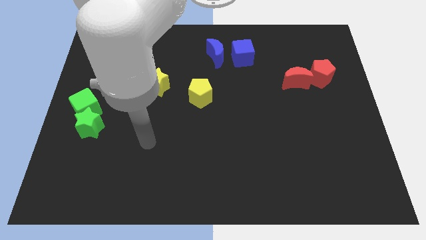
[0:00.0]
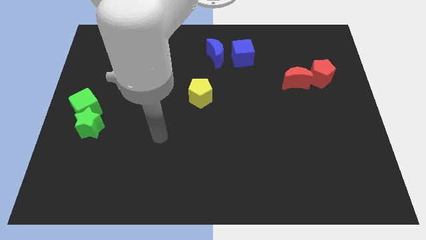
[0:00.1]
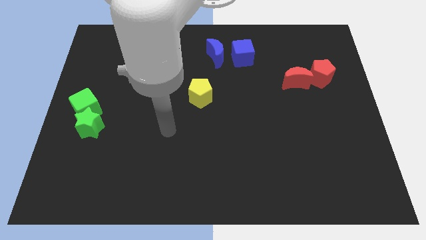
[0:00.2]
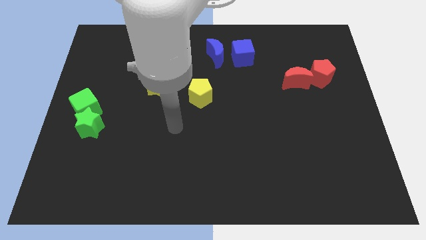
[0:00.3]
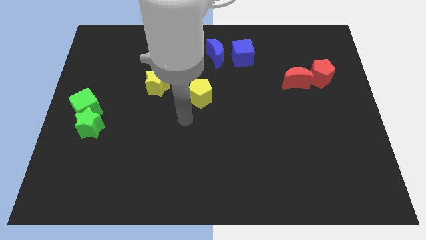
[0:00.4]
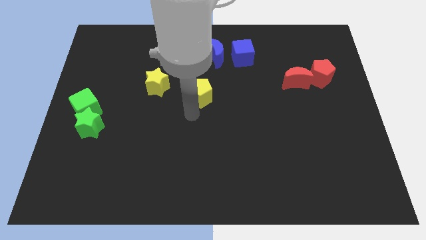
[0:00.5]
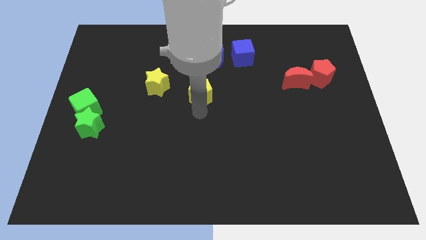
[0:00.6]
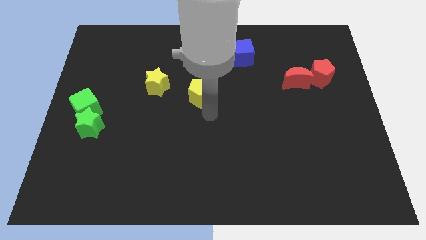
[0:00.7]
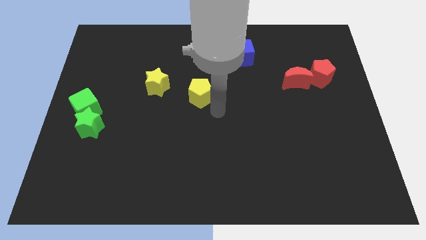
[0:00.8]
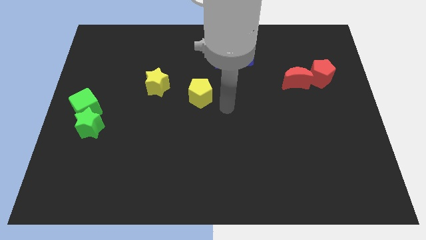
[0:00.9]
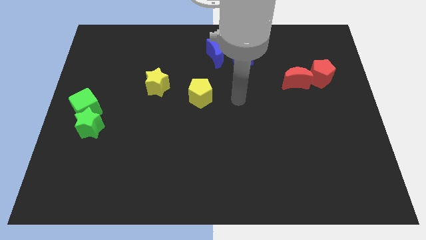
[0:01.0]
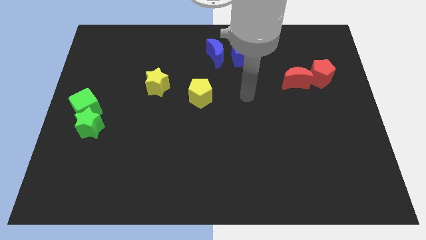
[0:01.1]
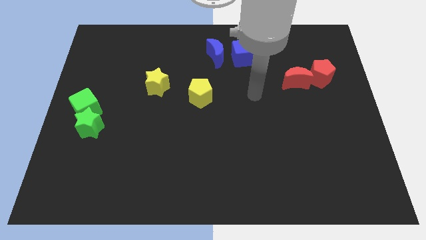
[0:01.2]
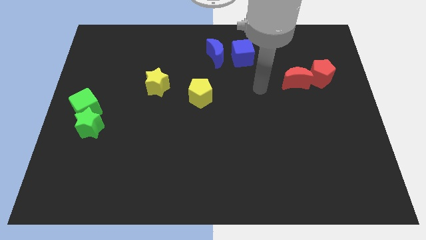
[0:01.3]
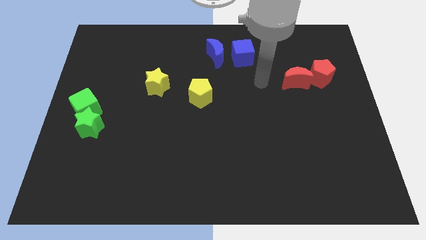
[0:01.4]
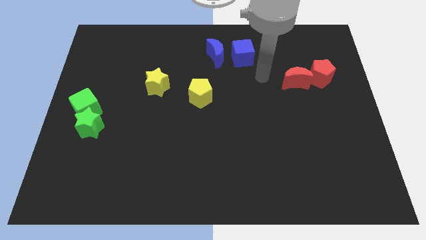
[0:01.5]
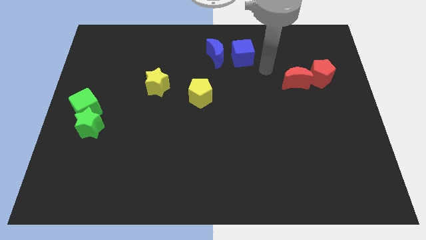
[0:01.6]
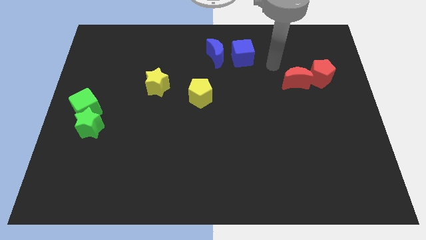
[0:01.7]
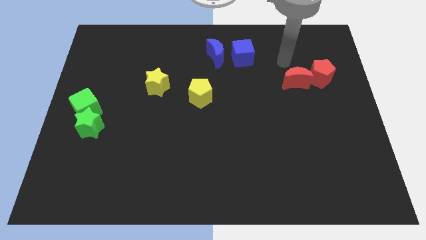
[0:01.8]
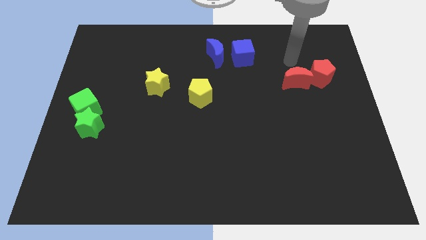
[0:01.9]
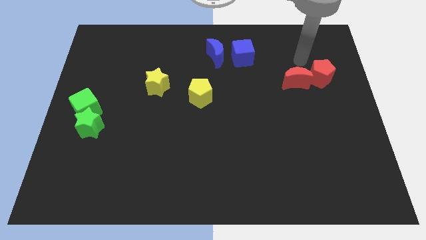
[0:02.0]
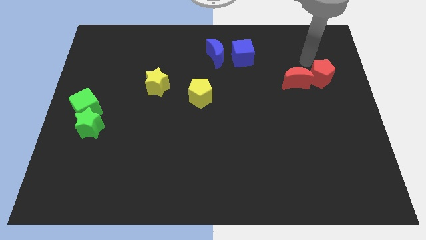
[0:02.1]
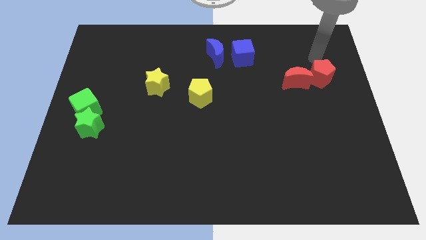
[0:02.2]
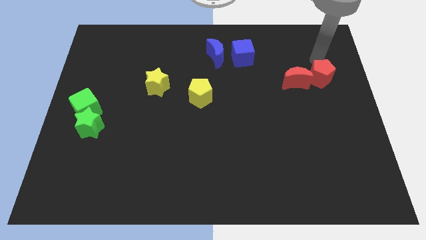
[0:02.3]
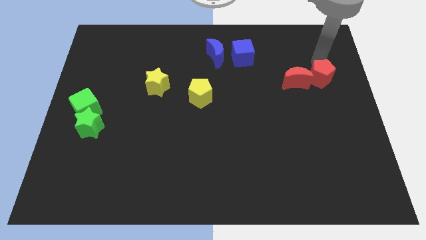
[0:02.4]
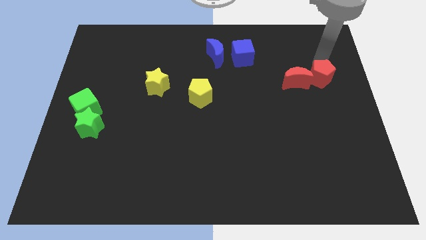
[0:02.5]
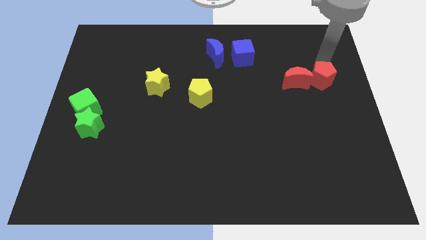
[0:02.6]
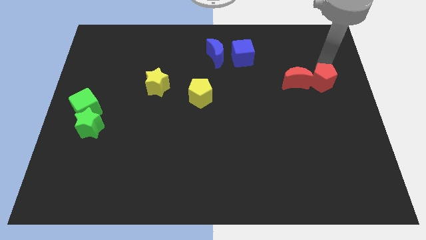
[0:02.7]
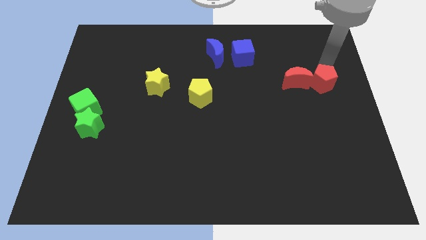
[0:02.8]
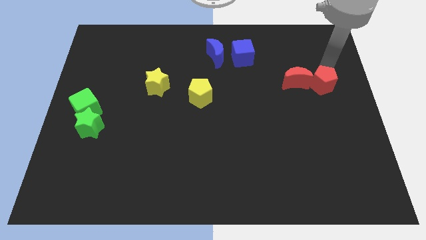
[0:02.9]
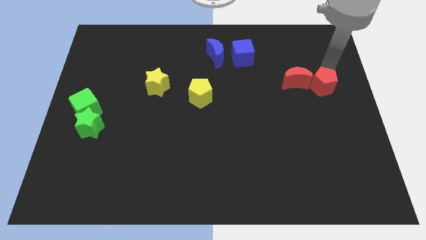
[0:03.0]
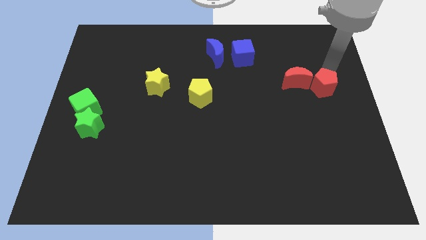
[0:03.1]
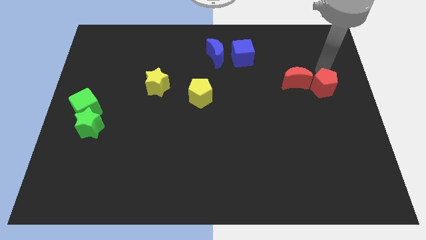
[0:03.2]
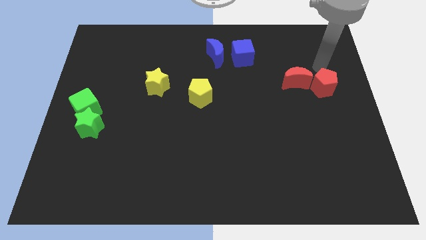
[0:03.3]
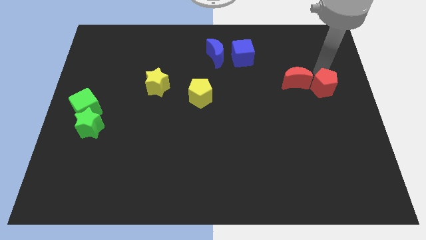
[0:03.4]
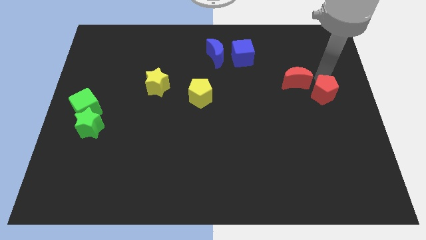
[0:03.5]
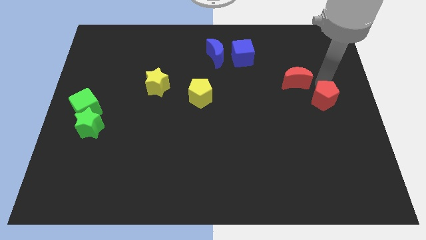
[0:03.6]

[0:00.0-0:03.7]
slide the red pentagon somewhat downwards

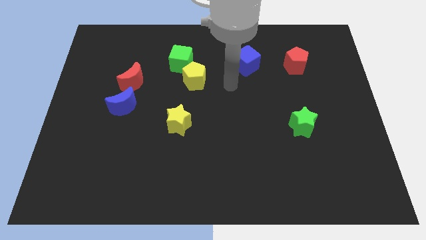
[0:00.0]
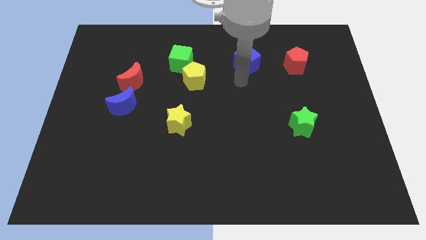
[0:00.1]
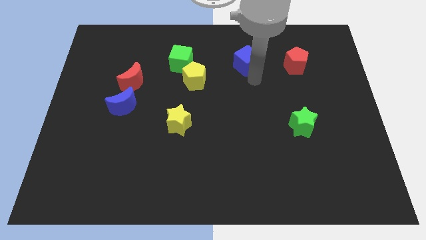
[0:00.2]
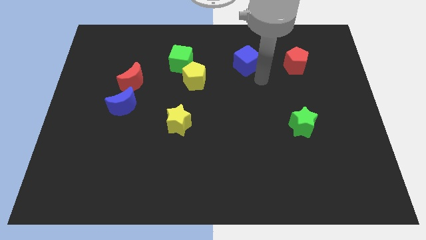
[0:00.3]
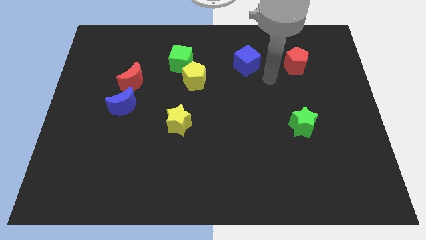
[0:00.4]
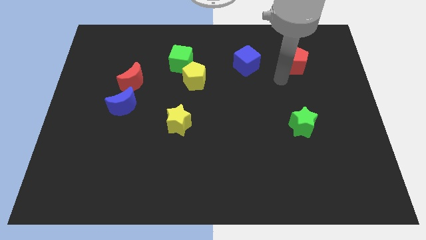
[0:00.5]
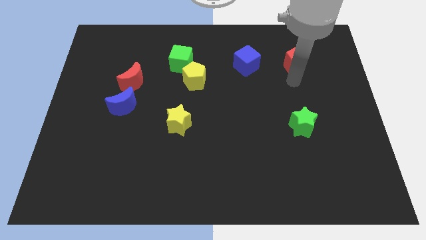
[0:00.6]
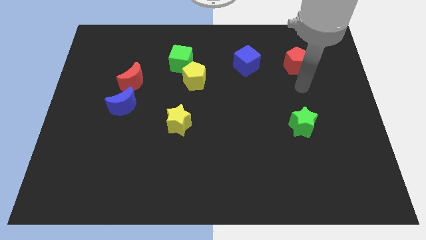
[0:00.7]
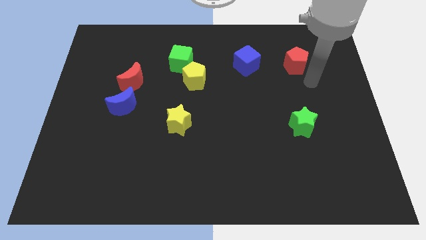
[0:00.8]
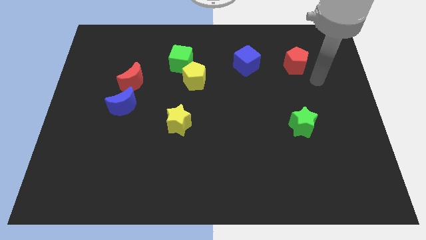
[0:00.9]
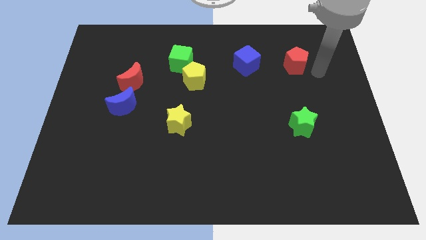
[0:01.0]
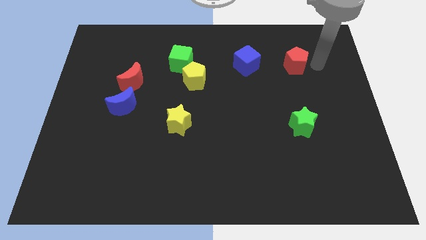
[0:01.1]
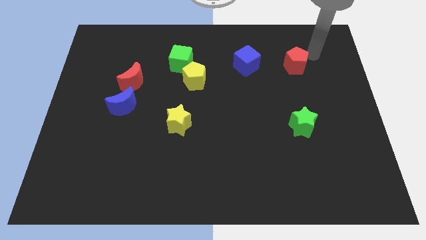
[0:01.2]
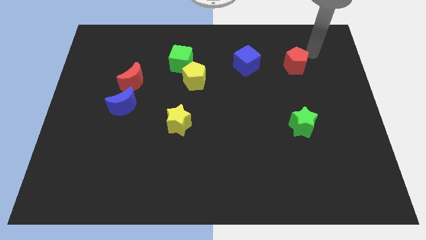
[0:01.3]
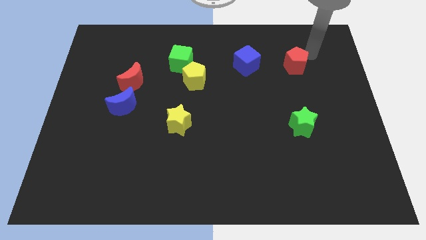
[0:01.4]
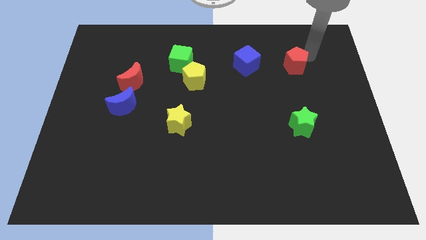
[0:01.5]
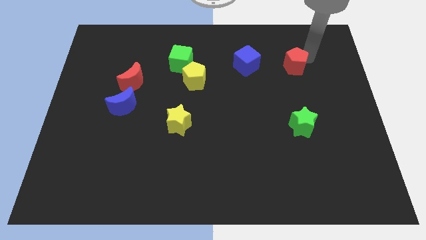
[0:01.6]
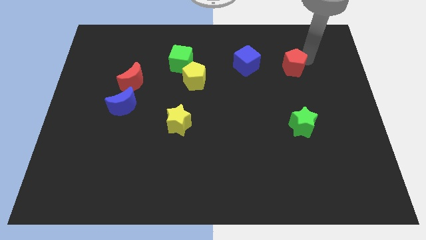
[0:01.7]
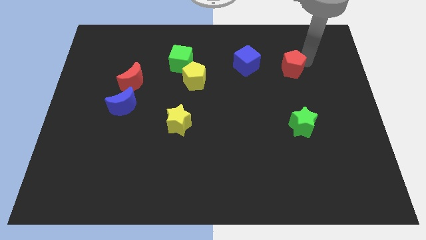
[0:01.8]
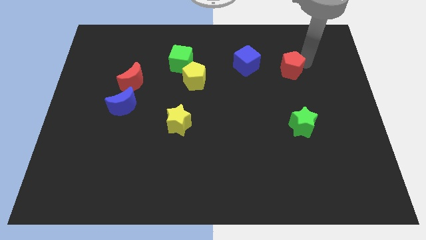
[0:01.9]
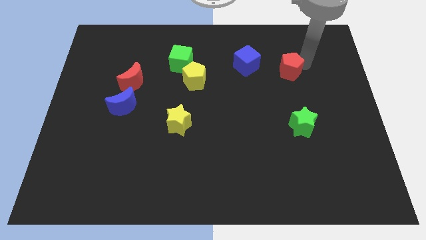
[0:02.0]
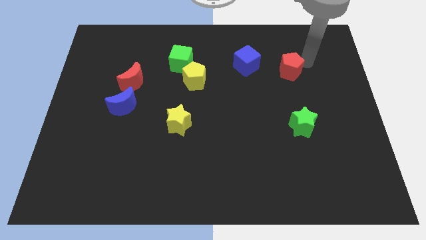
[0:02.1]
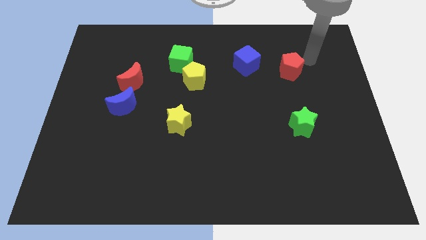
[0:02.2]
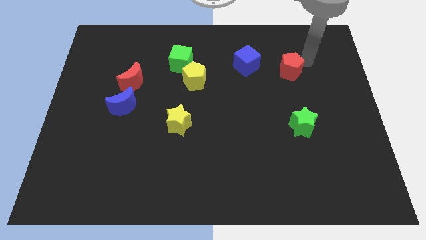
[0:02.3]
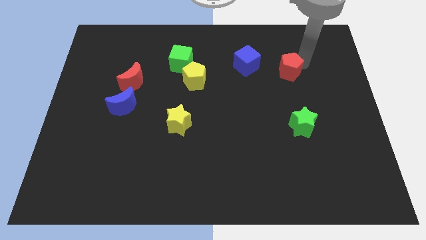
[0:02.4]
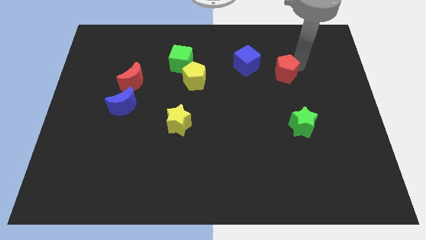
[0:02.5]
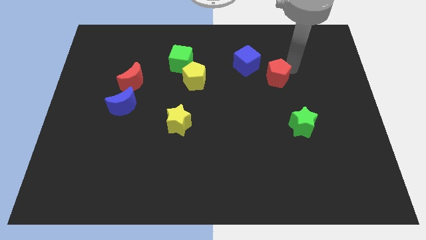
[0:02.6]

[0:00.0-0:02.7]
move the red pentagon diagonally down and left a little bit

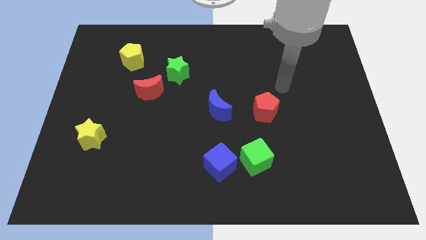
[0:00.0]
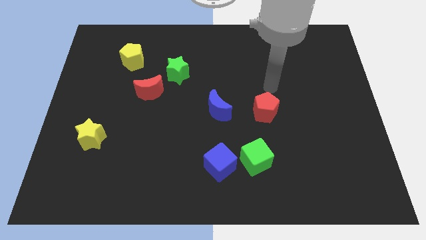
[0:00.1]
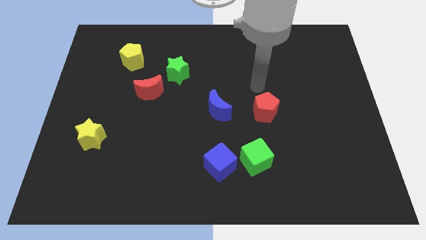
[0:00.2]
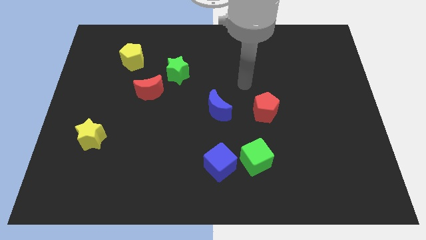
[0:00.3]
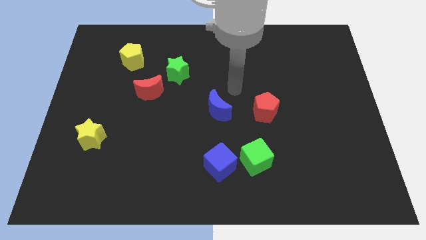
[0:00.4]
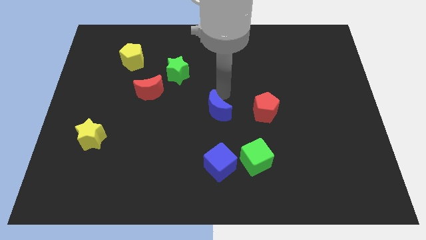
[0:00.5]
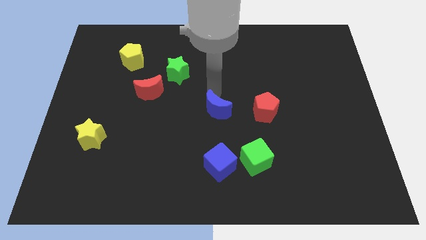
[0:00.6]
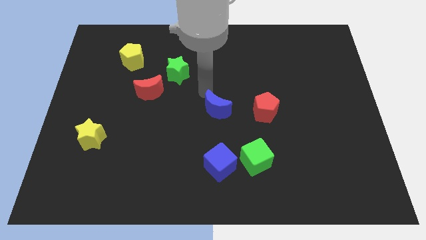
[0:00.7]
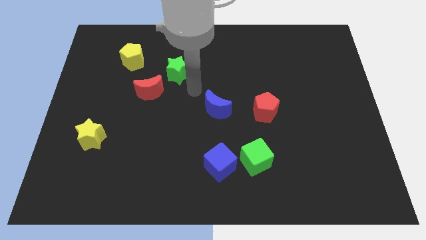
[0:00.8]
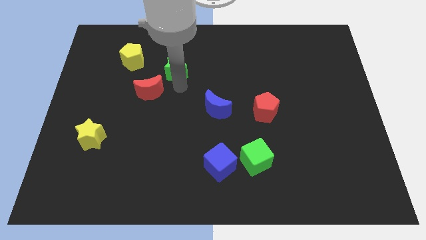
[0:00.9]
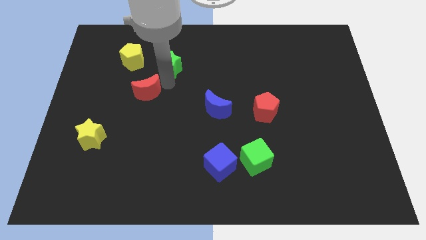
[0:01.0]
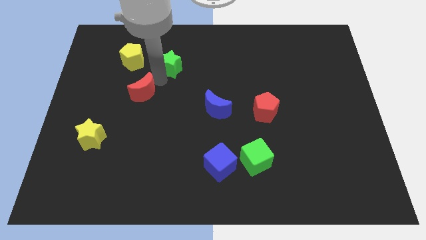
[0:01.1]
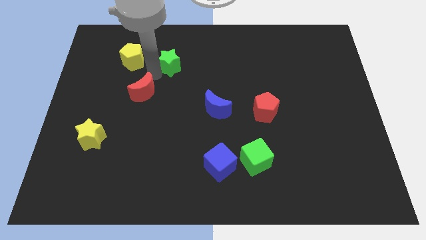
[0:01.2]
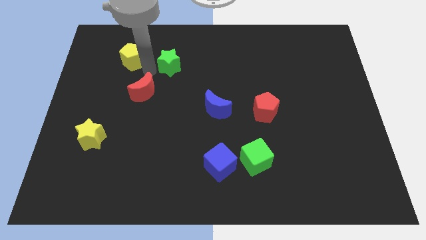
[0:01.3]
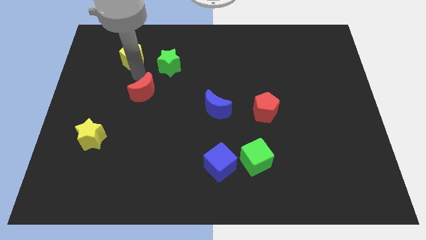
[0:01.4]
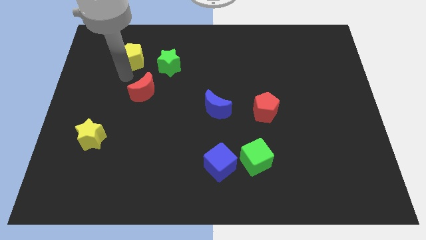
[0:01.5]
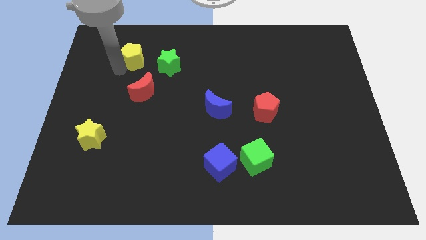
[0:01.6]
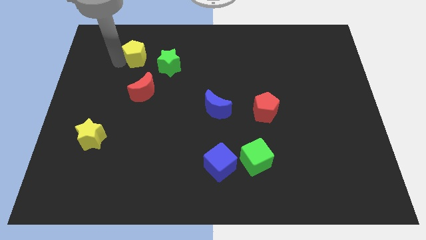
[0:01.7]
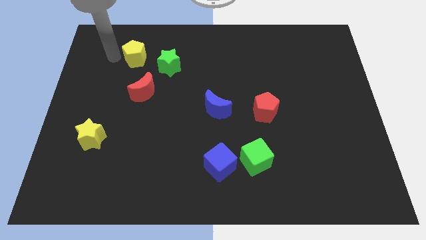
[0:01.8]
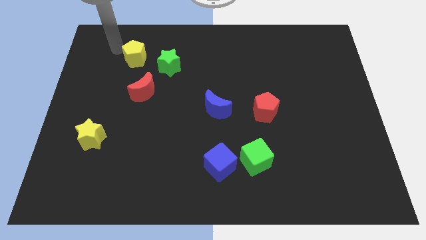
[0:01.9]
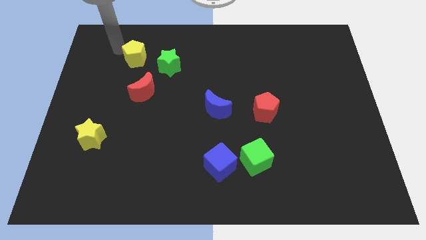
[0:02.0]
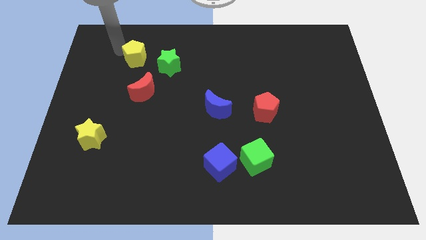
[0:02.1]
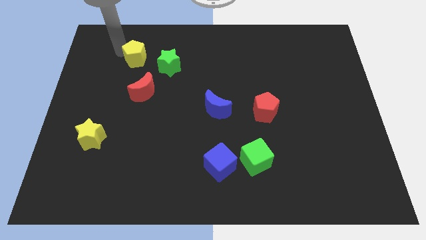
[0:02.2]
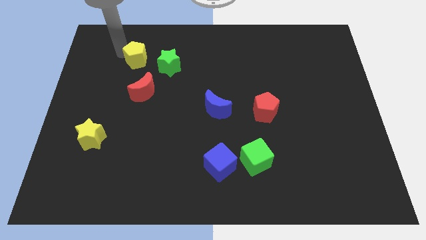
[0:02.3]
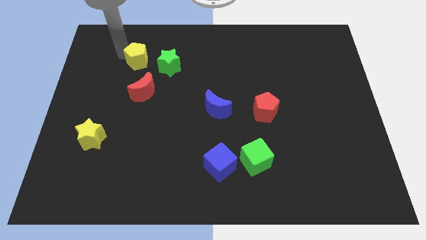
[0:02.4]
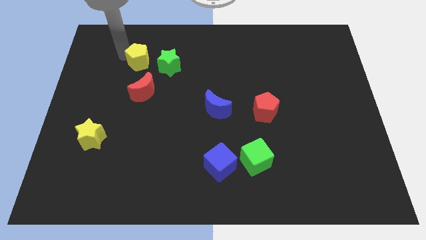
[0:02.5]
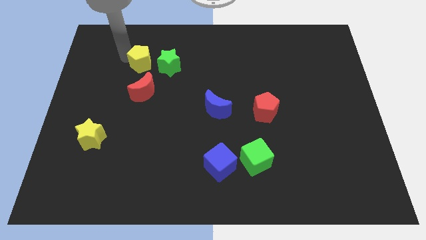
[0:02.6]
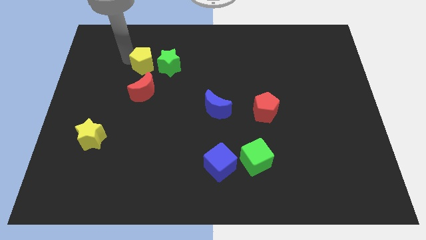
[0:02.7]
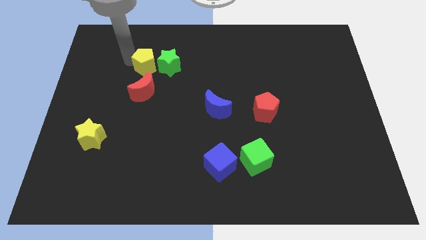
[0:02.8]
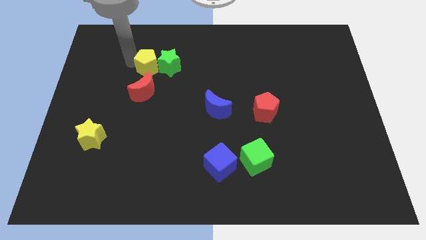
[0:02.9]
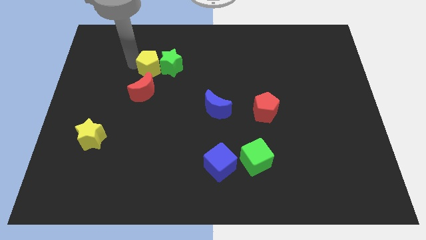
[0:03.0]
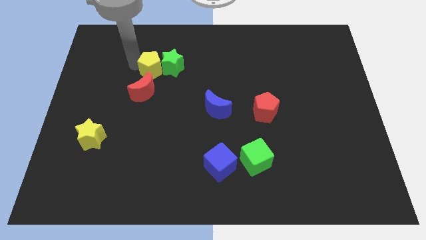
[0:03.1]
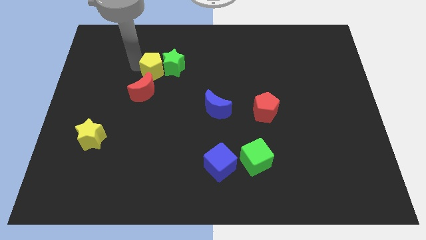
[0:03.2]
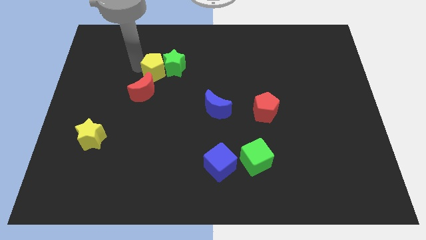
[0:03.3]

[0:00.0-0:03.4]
push the yellow pentagon somewhat downwards and right
